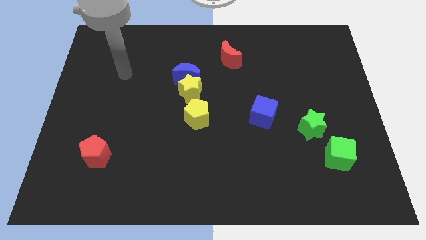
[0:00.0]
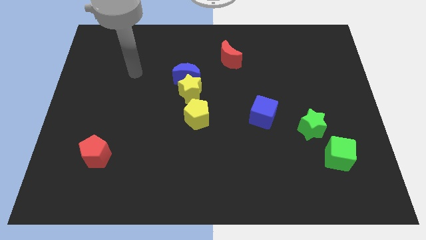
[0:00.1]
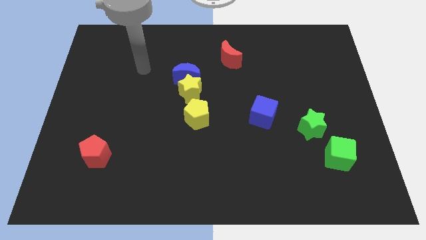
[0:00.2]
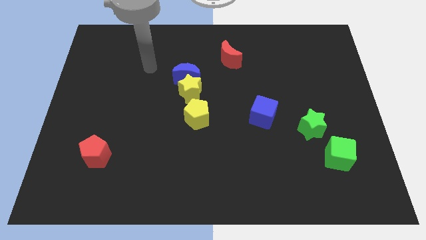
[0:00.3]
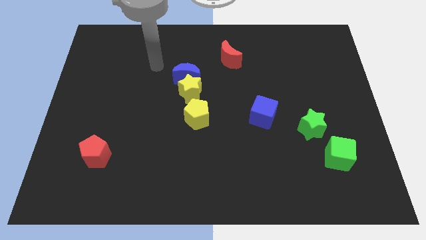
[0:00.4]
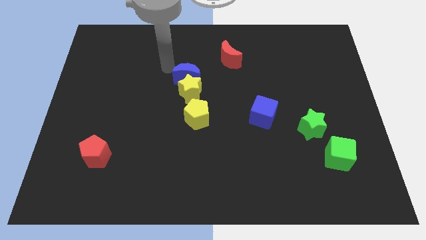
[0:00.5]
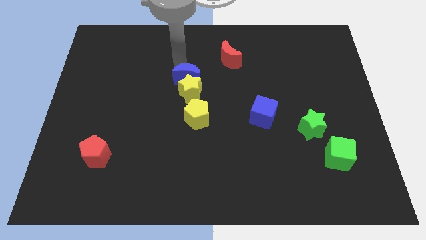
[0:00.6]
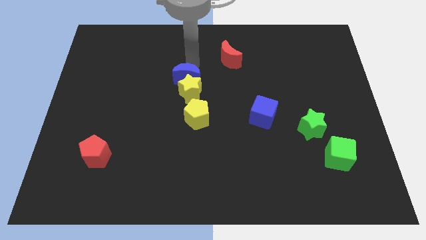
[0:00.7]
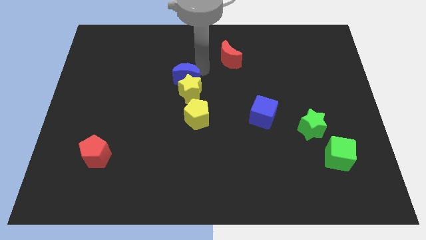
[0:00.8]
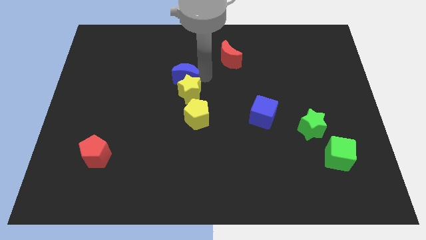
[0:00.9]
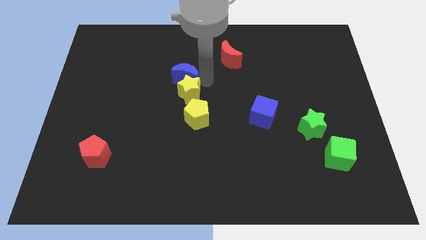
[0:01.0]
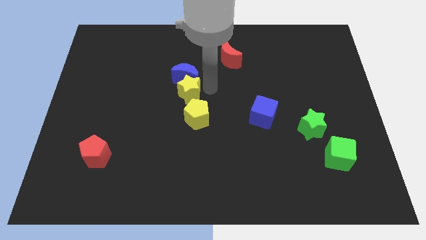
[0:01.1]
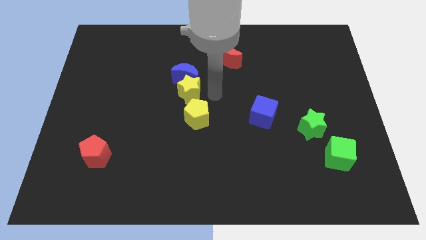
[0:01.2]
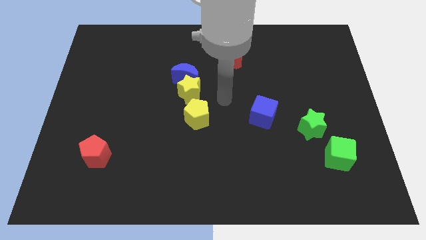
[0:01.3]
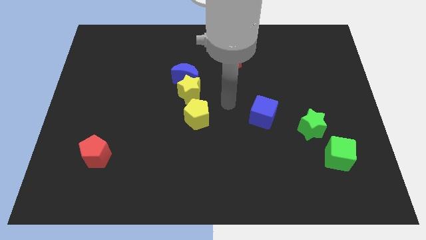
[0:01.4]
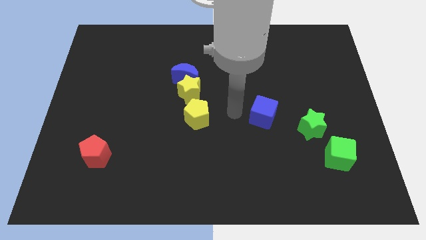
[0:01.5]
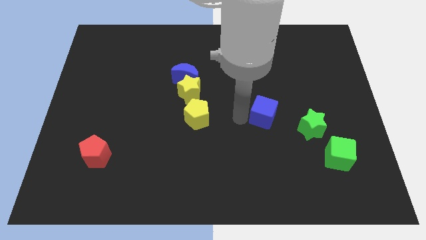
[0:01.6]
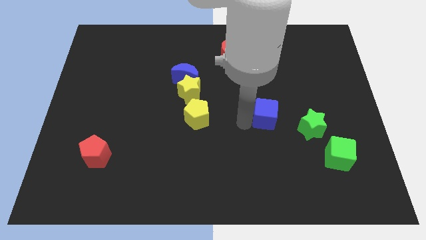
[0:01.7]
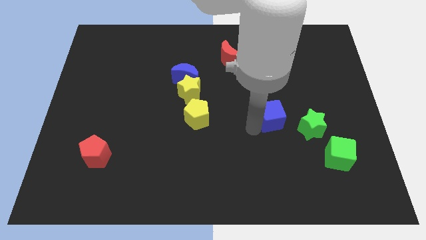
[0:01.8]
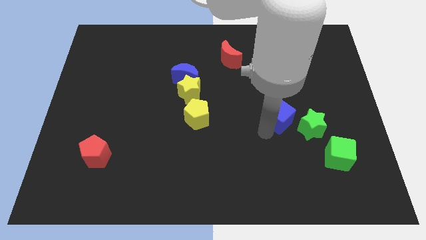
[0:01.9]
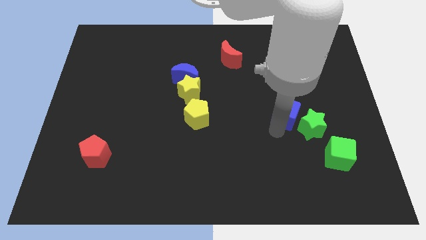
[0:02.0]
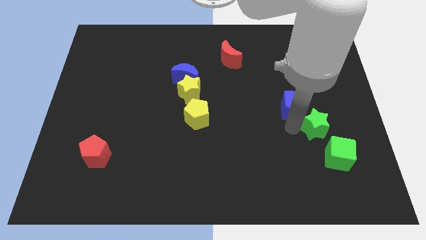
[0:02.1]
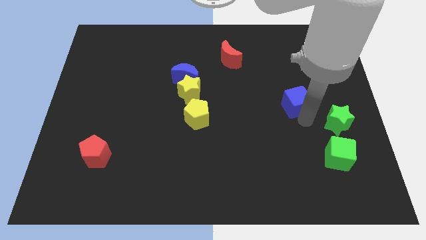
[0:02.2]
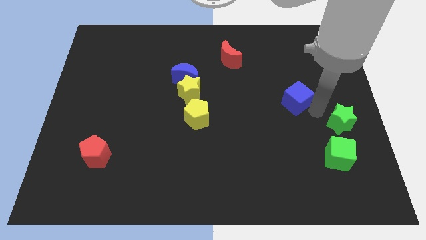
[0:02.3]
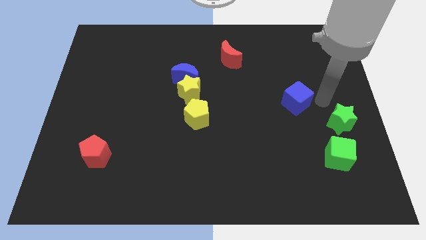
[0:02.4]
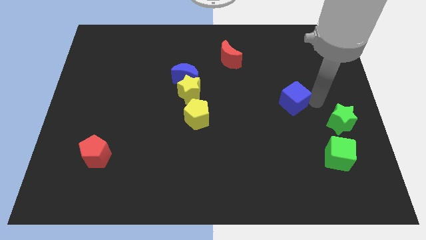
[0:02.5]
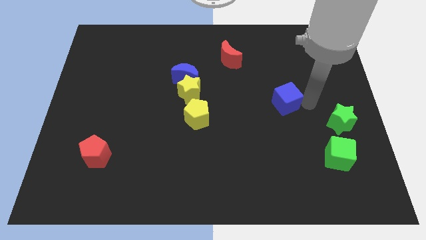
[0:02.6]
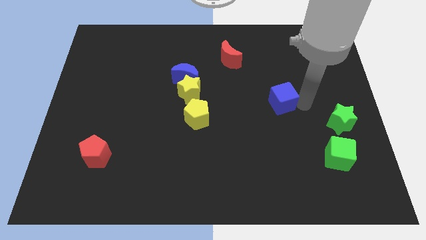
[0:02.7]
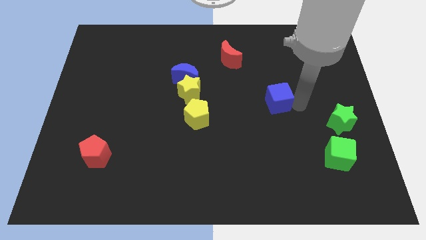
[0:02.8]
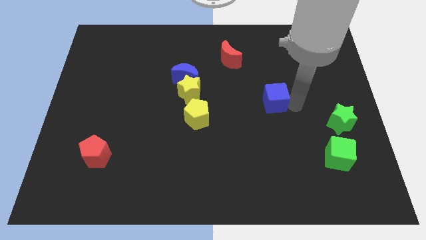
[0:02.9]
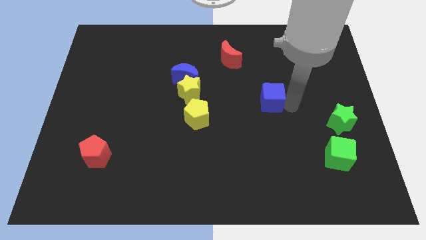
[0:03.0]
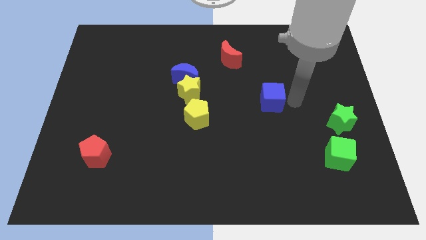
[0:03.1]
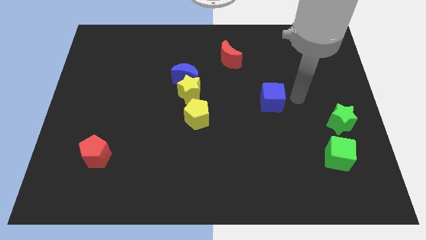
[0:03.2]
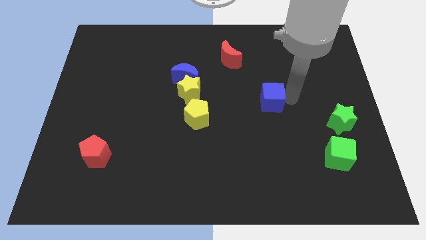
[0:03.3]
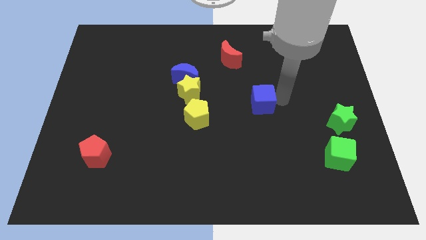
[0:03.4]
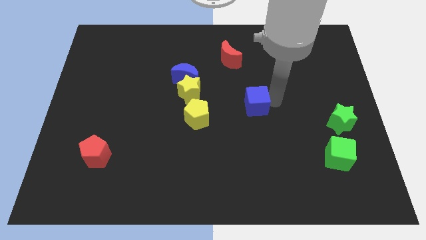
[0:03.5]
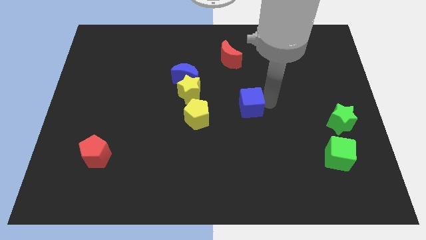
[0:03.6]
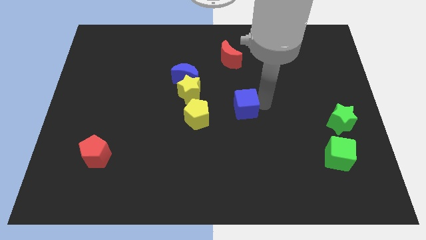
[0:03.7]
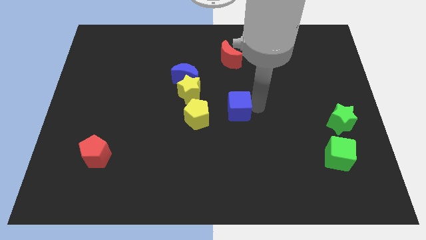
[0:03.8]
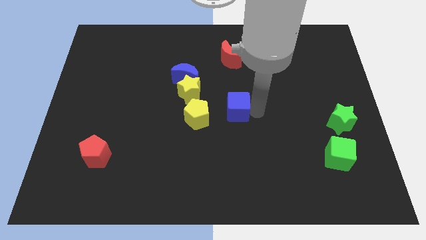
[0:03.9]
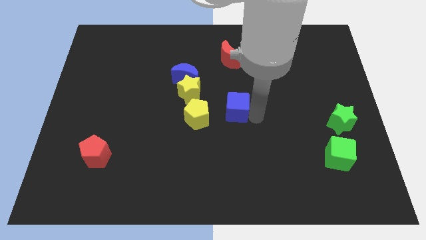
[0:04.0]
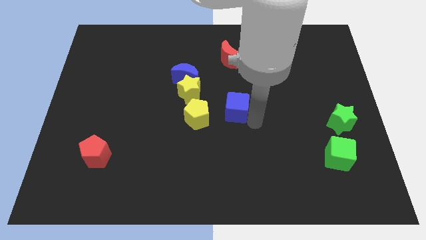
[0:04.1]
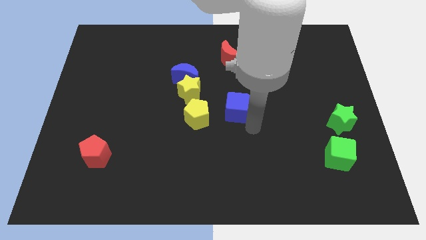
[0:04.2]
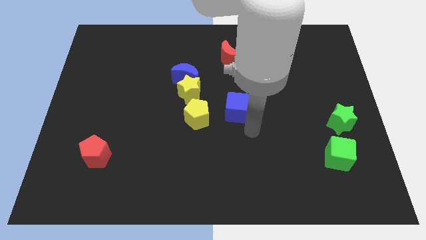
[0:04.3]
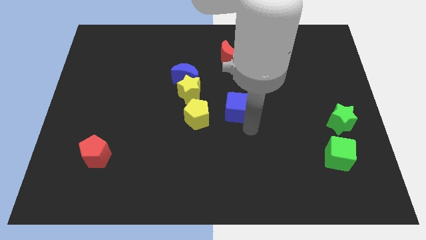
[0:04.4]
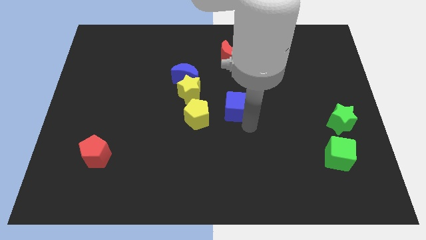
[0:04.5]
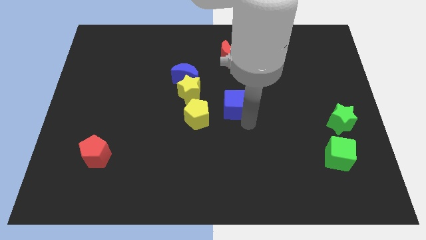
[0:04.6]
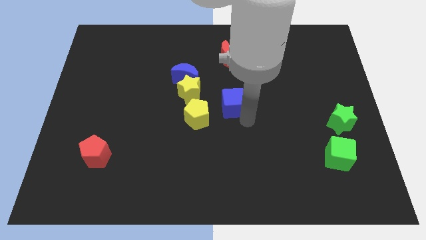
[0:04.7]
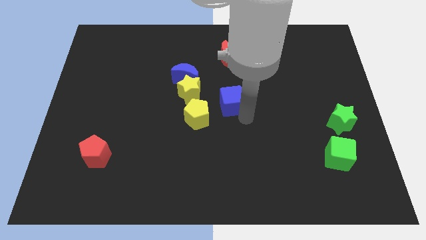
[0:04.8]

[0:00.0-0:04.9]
slide the blue cube slightly up and to the left diagonally

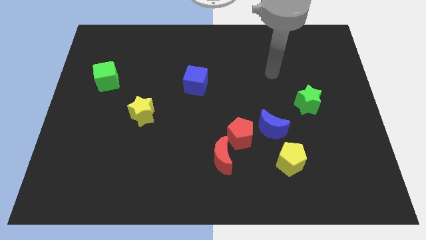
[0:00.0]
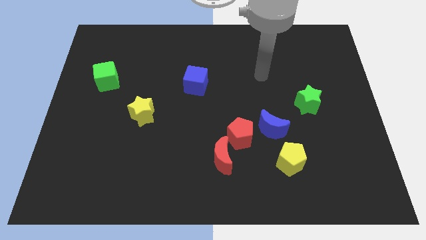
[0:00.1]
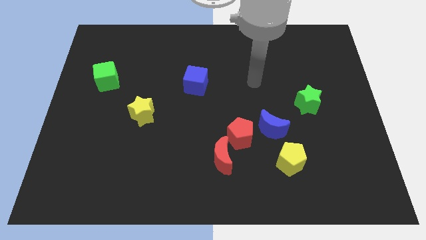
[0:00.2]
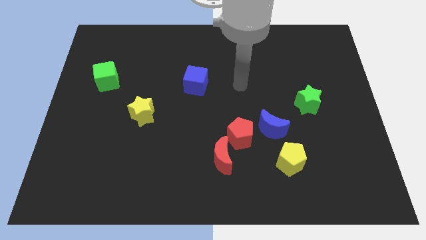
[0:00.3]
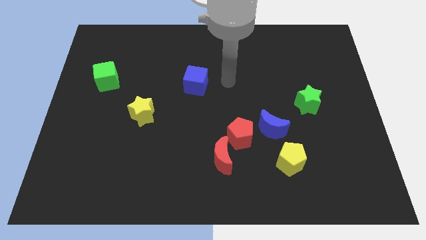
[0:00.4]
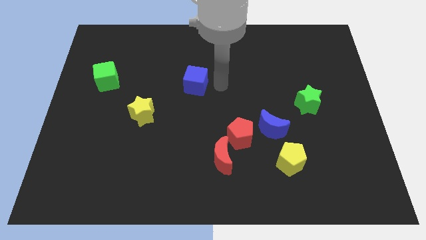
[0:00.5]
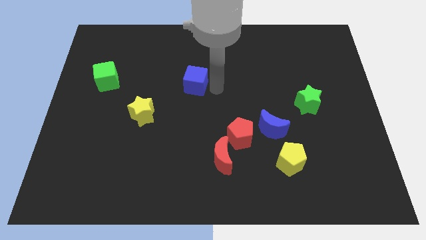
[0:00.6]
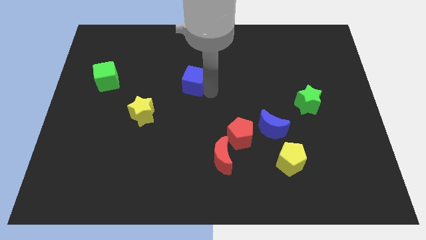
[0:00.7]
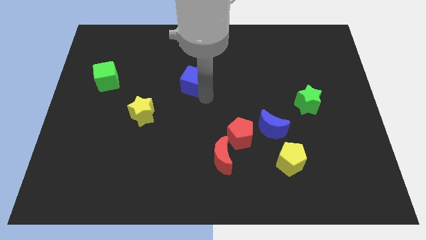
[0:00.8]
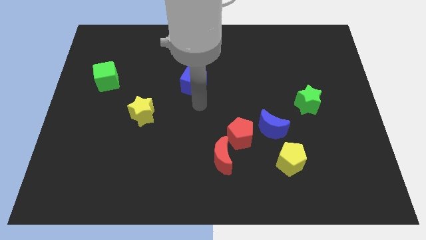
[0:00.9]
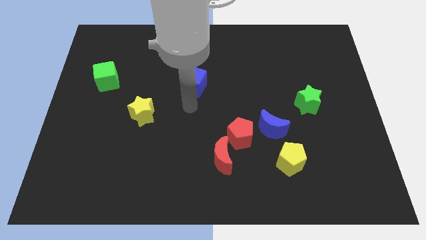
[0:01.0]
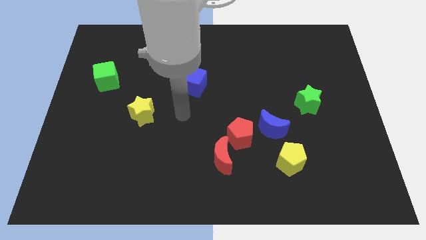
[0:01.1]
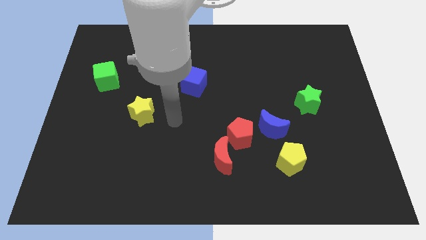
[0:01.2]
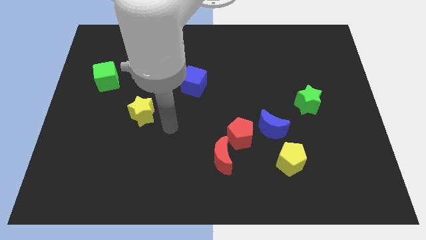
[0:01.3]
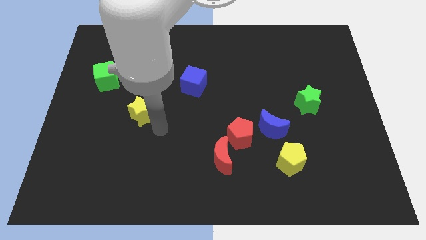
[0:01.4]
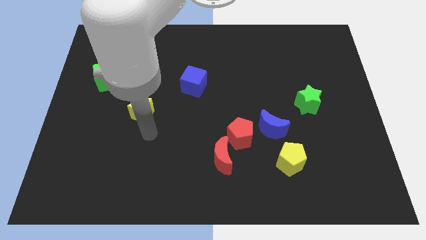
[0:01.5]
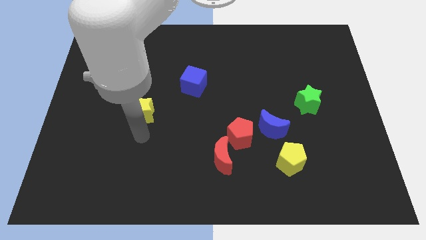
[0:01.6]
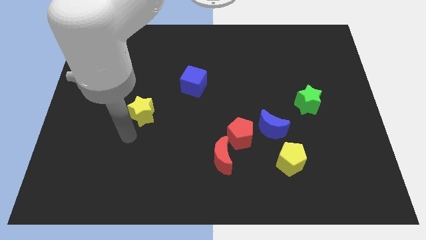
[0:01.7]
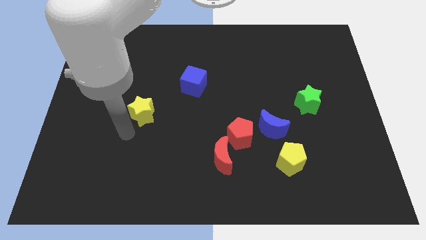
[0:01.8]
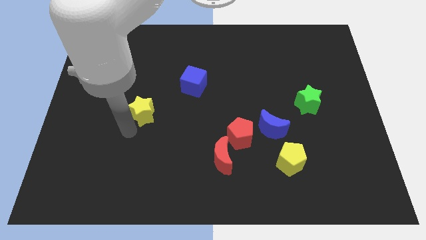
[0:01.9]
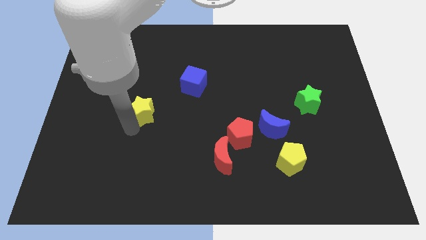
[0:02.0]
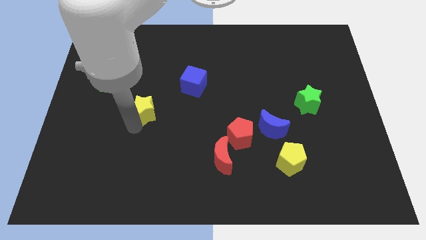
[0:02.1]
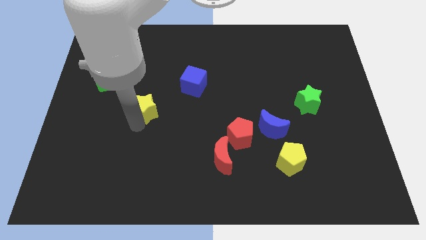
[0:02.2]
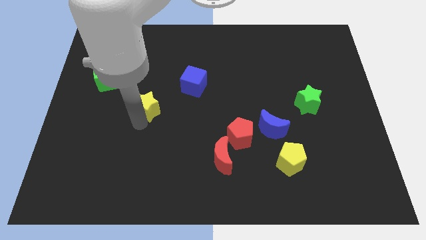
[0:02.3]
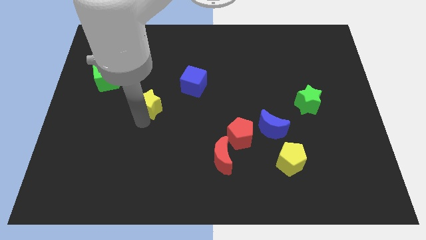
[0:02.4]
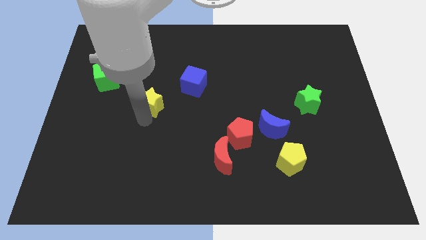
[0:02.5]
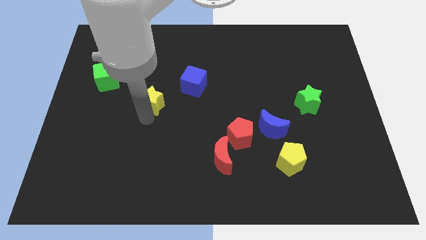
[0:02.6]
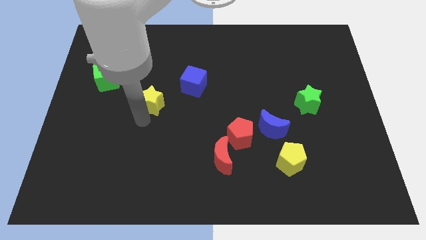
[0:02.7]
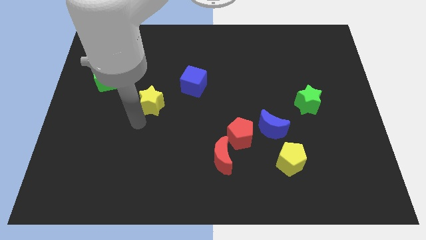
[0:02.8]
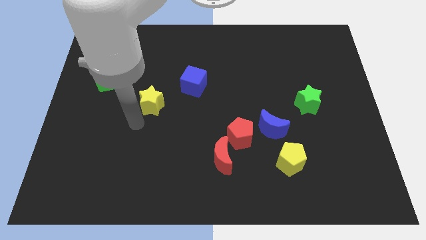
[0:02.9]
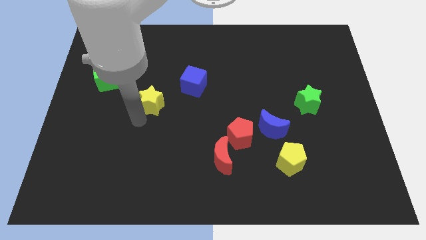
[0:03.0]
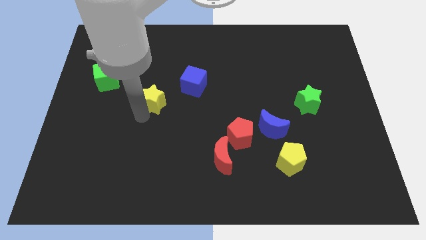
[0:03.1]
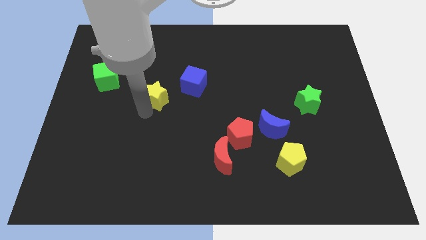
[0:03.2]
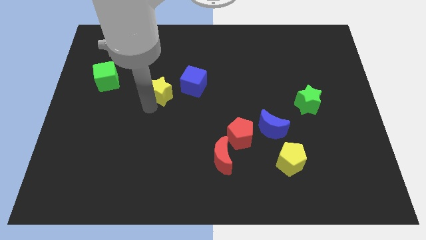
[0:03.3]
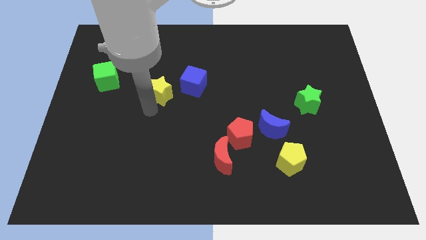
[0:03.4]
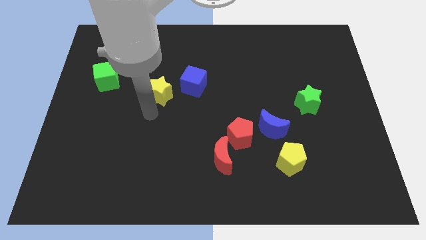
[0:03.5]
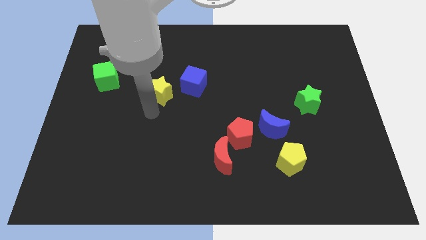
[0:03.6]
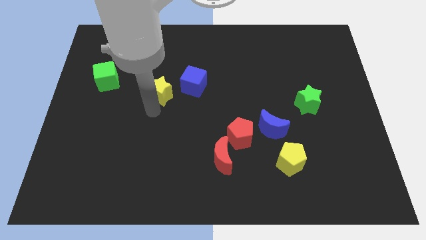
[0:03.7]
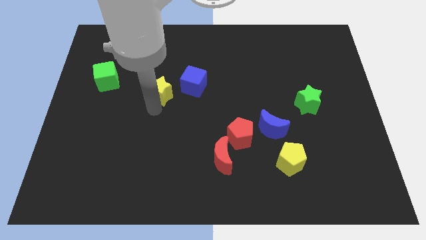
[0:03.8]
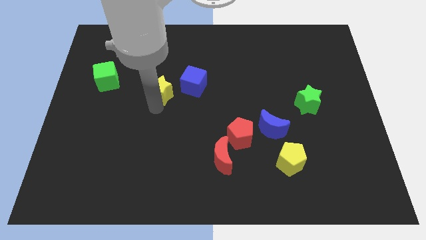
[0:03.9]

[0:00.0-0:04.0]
slide the yellow star upwards and to the right diagonally somewhat
